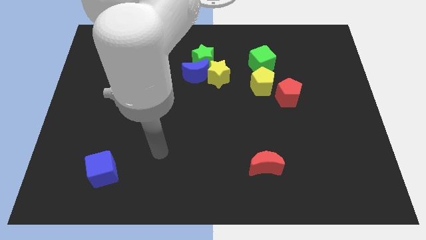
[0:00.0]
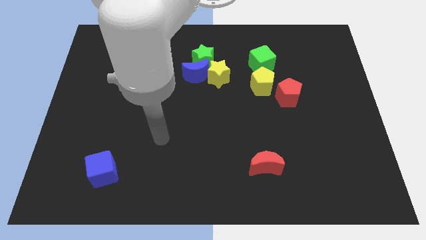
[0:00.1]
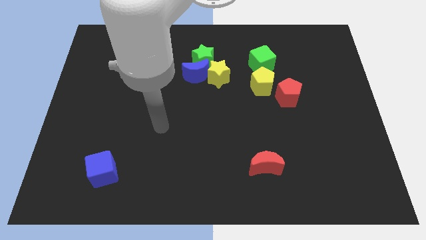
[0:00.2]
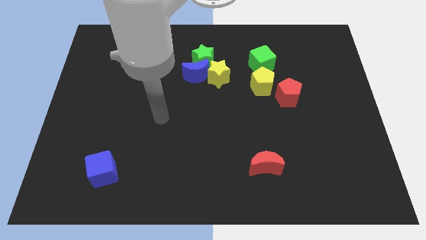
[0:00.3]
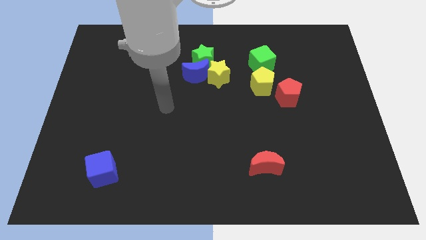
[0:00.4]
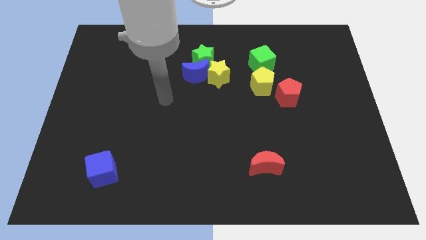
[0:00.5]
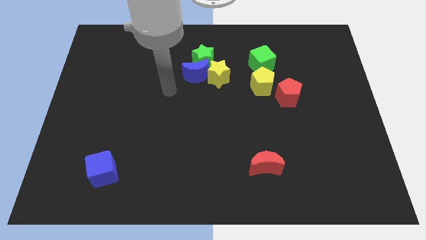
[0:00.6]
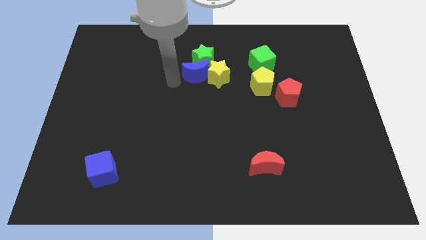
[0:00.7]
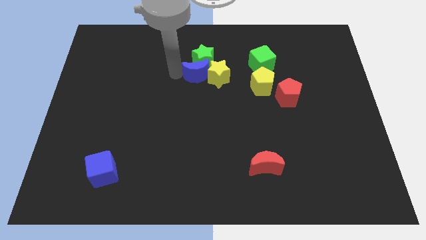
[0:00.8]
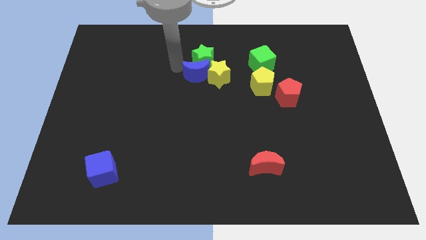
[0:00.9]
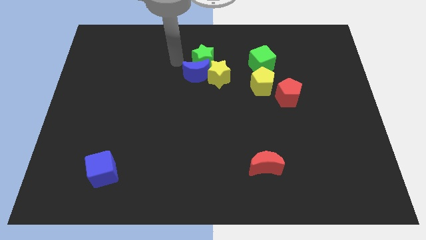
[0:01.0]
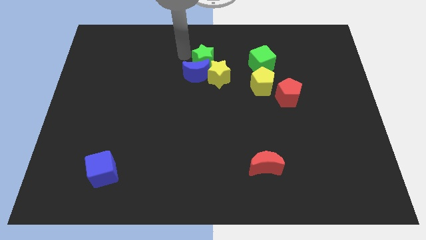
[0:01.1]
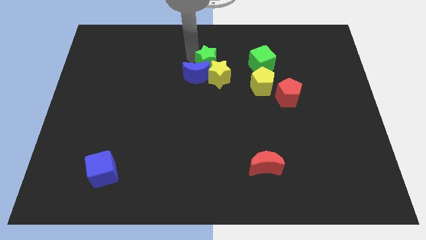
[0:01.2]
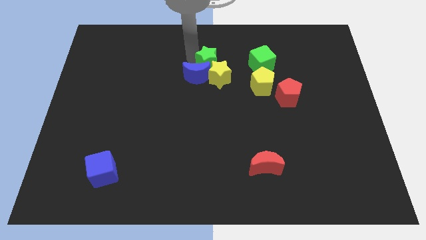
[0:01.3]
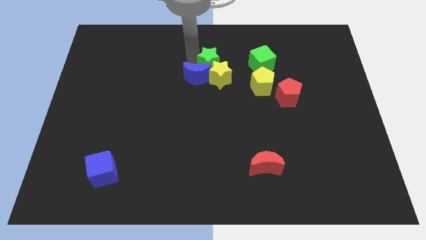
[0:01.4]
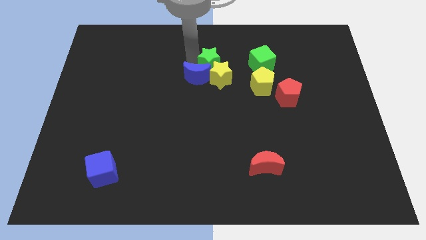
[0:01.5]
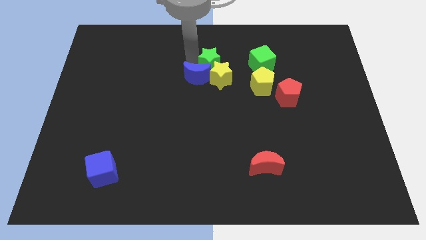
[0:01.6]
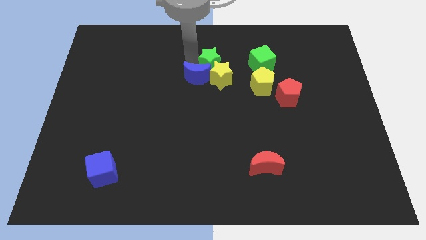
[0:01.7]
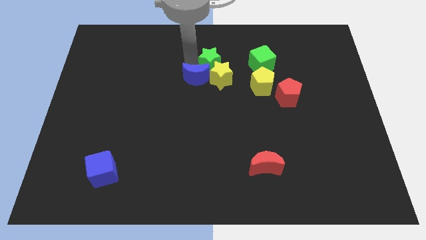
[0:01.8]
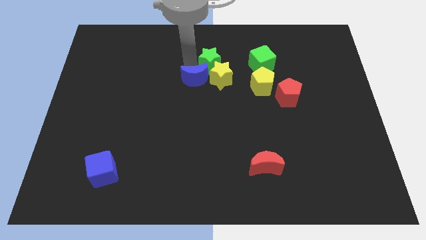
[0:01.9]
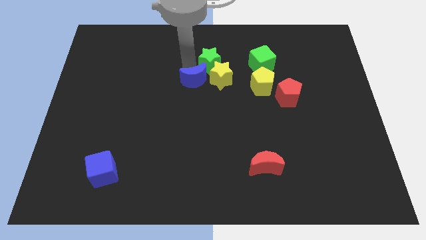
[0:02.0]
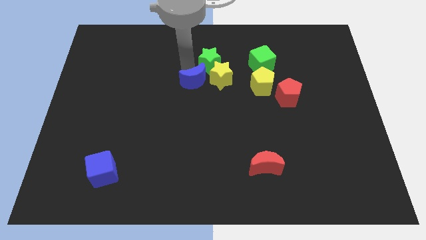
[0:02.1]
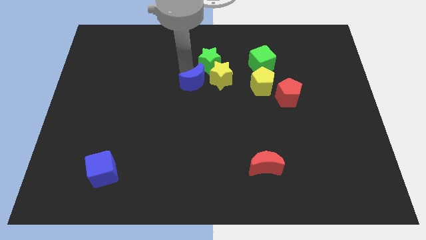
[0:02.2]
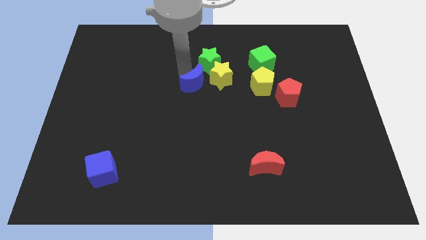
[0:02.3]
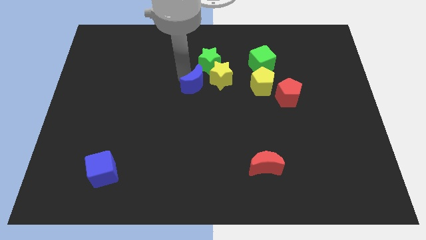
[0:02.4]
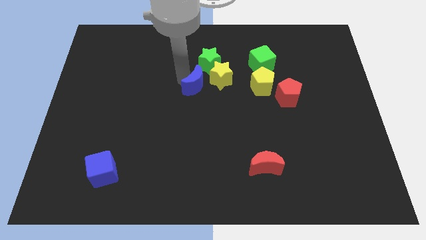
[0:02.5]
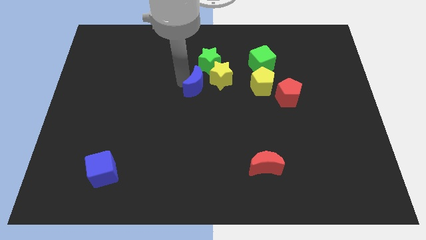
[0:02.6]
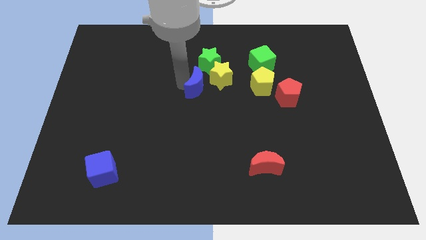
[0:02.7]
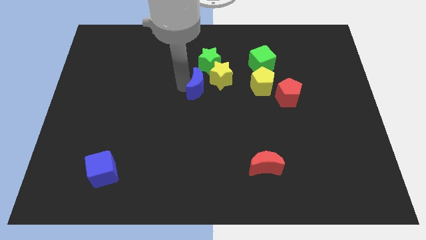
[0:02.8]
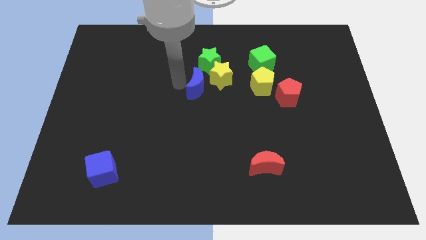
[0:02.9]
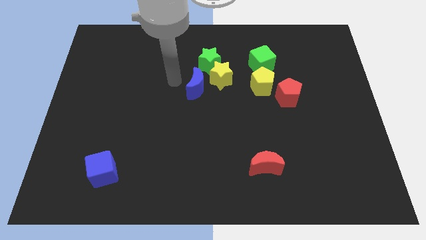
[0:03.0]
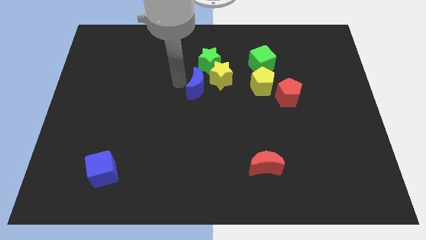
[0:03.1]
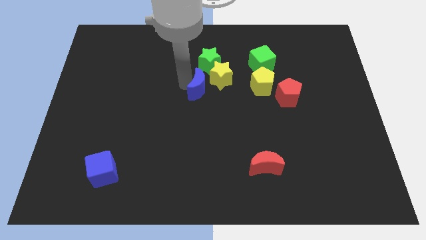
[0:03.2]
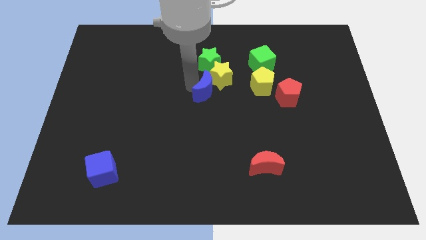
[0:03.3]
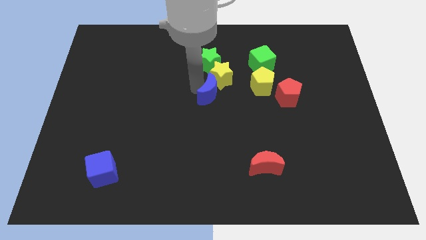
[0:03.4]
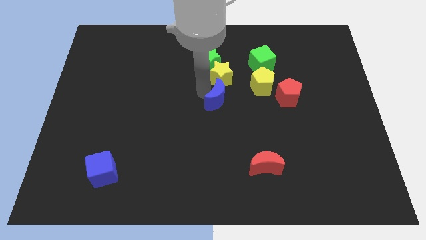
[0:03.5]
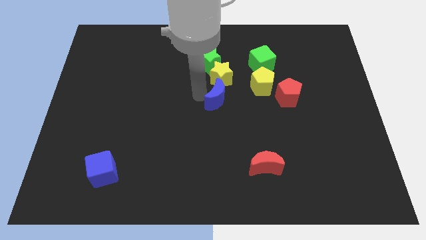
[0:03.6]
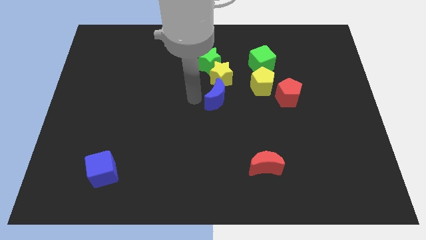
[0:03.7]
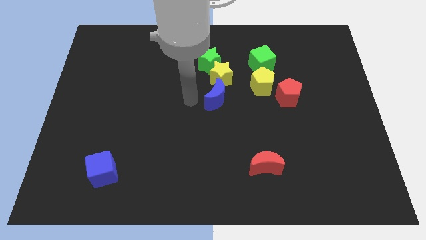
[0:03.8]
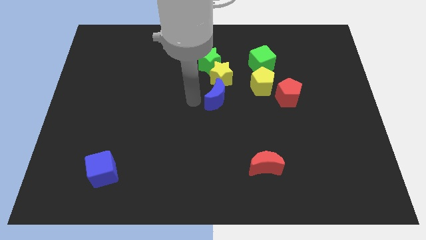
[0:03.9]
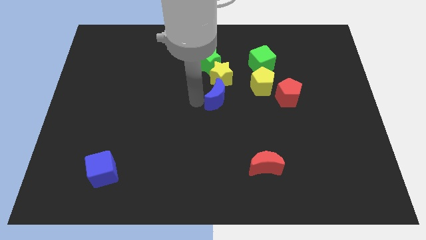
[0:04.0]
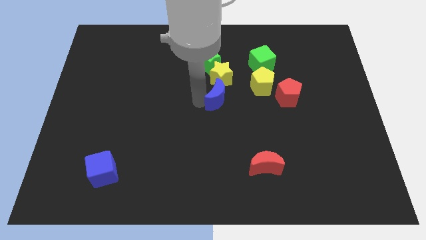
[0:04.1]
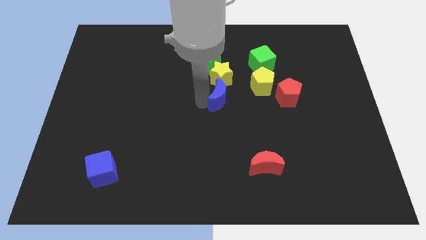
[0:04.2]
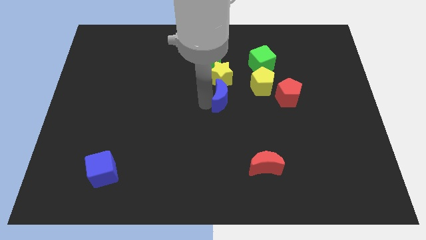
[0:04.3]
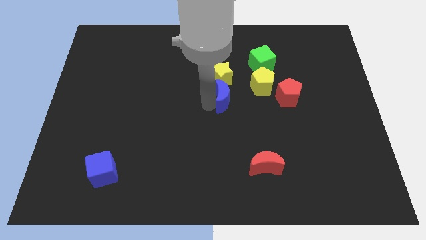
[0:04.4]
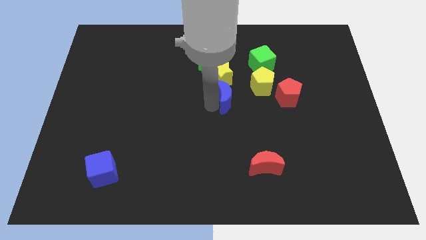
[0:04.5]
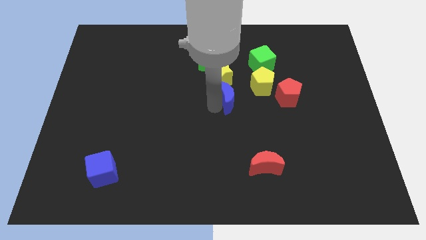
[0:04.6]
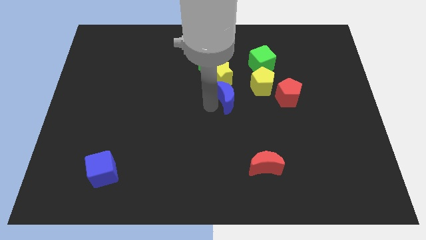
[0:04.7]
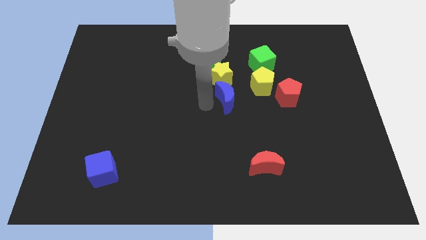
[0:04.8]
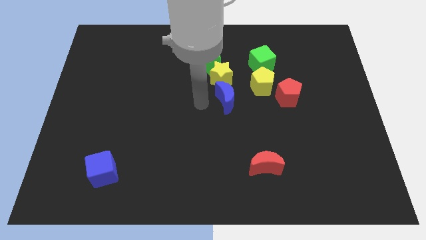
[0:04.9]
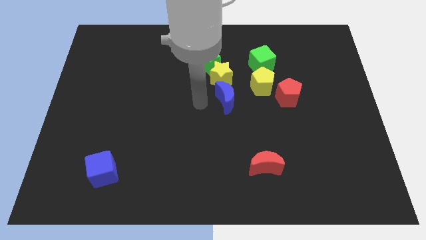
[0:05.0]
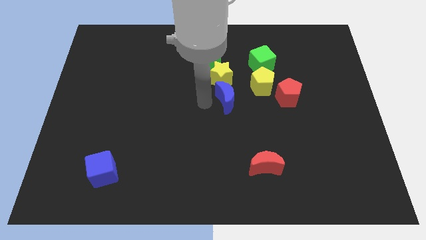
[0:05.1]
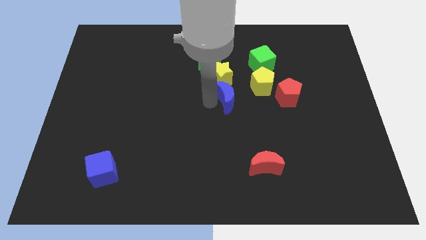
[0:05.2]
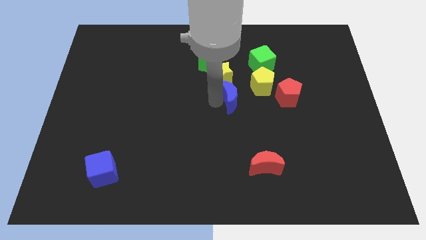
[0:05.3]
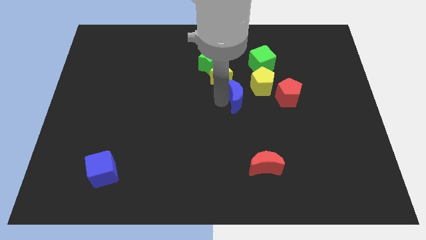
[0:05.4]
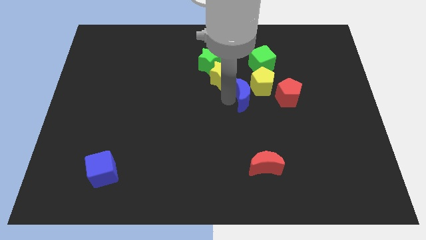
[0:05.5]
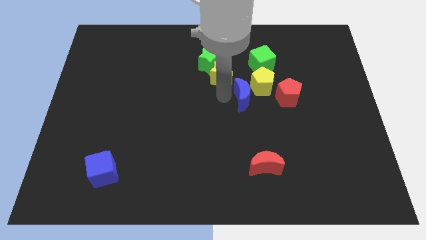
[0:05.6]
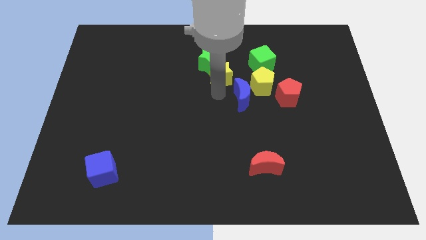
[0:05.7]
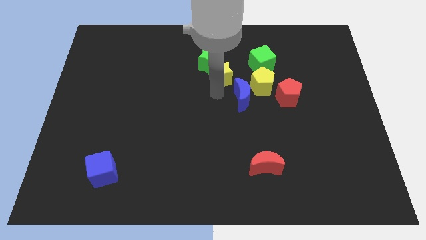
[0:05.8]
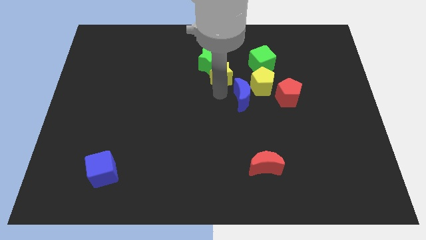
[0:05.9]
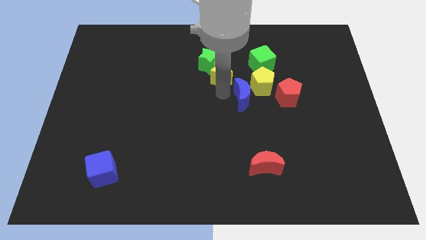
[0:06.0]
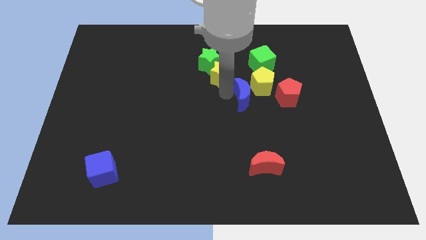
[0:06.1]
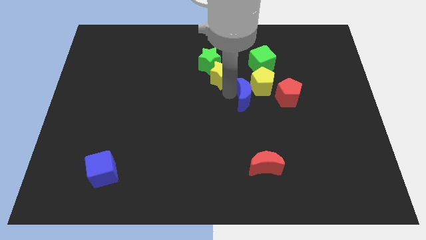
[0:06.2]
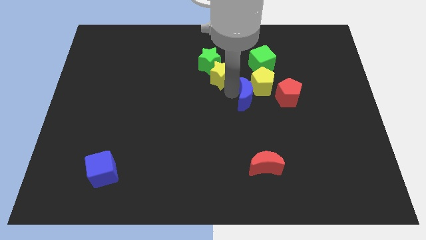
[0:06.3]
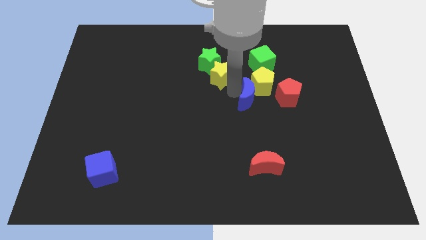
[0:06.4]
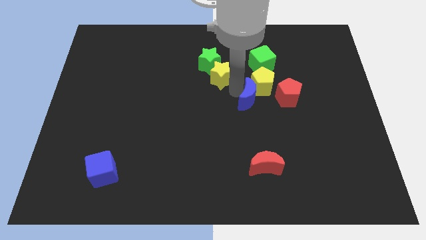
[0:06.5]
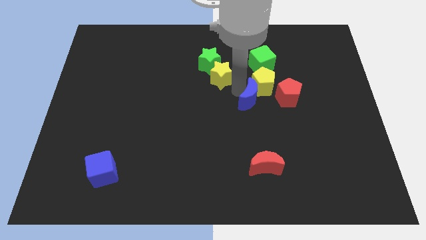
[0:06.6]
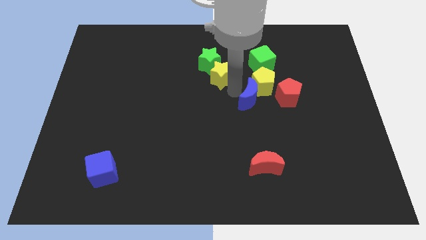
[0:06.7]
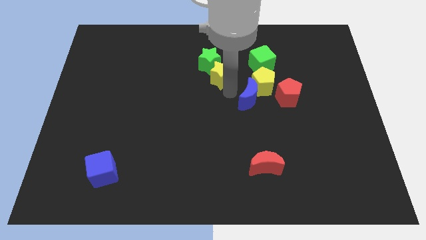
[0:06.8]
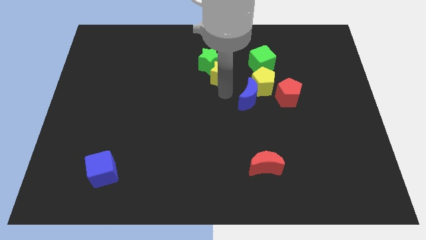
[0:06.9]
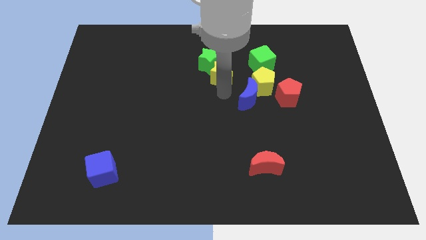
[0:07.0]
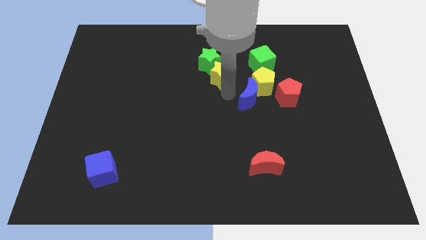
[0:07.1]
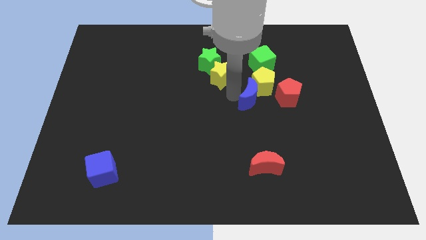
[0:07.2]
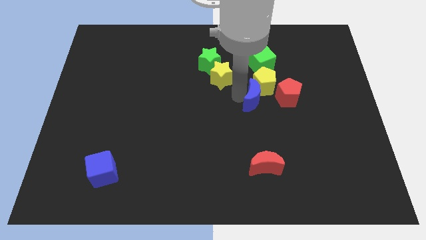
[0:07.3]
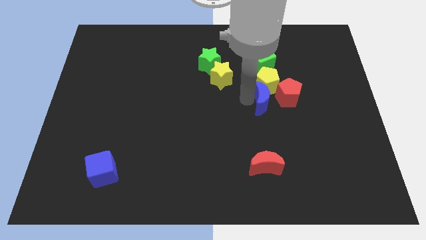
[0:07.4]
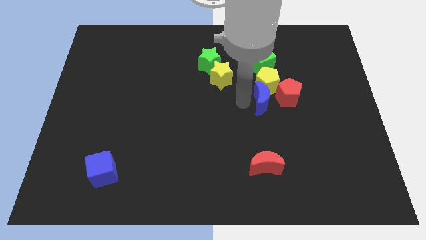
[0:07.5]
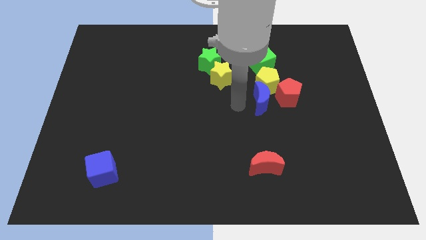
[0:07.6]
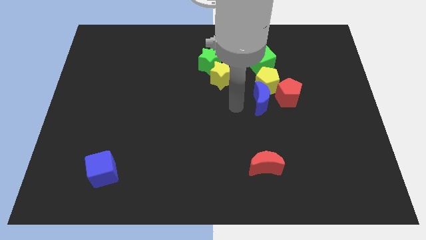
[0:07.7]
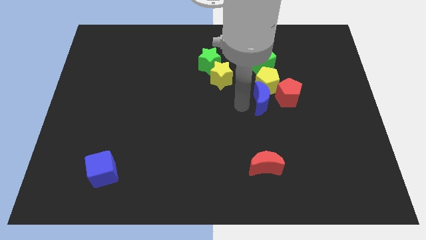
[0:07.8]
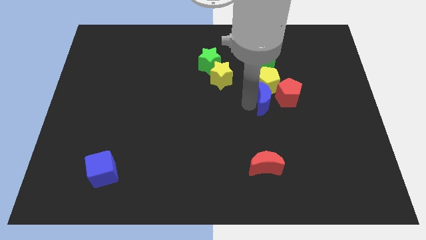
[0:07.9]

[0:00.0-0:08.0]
slide the blue moon next to the red pentagon

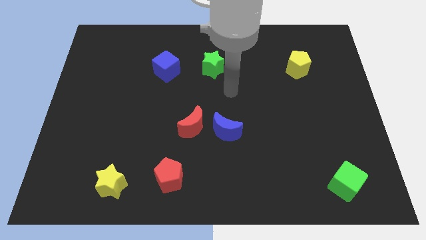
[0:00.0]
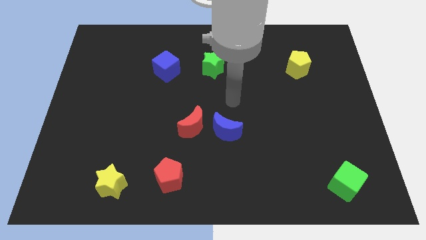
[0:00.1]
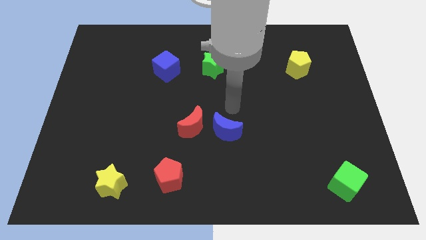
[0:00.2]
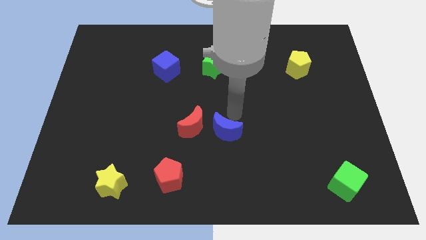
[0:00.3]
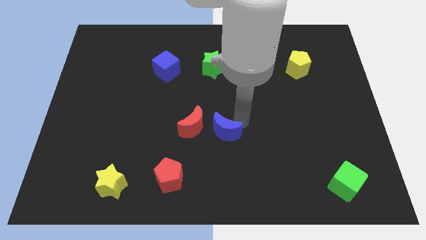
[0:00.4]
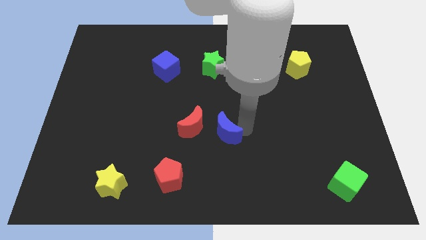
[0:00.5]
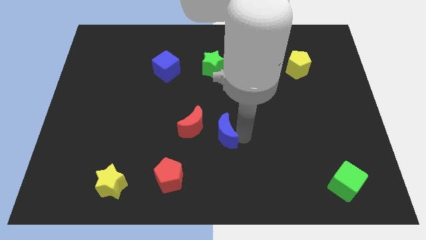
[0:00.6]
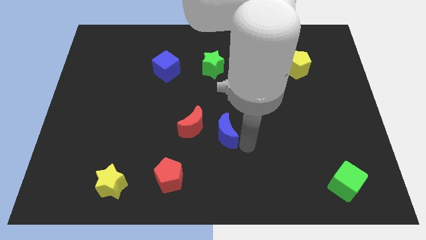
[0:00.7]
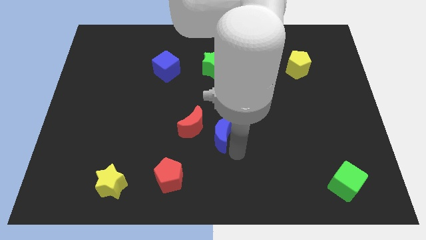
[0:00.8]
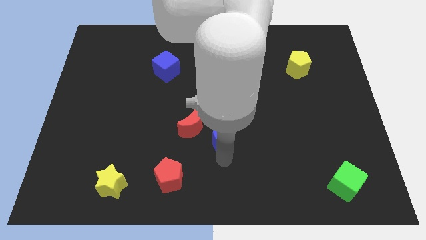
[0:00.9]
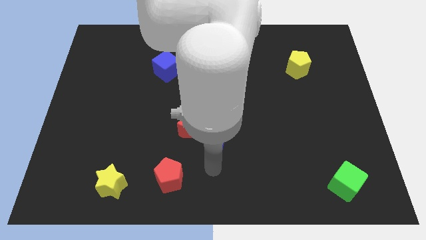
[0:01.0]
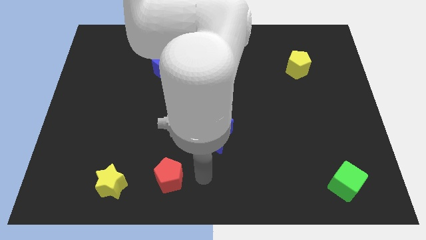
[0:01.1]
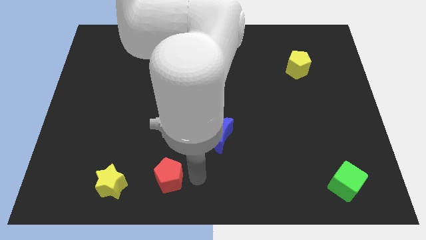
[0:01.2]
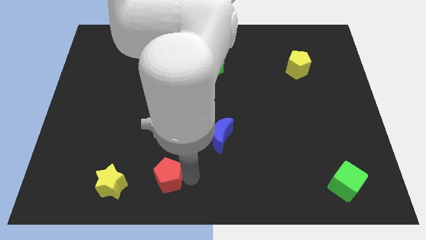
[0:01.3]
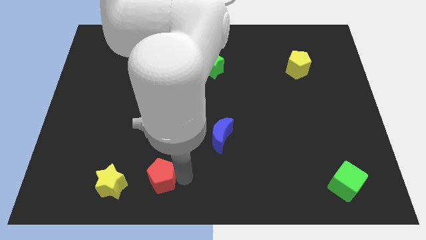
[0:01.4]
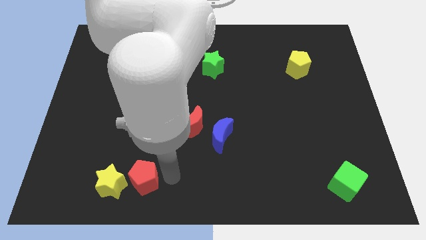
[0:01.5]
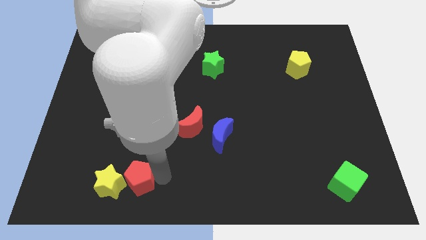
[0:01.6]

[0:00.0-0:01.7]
push the red pentagon next to the yellow star
